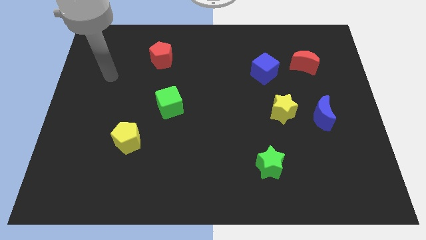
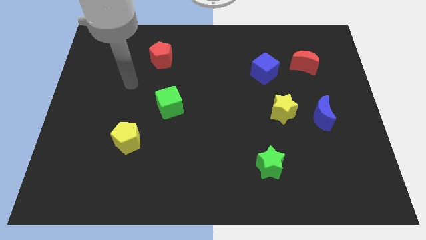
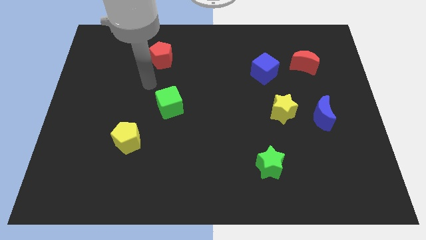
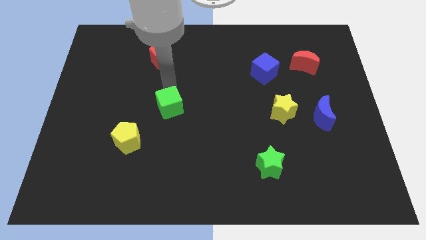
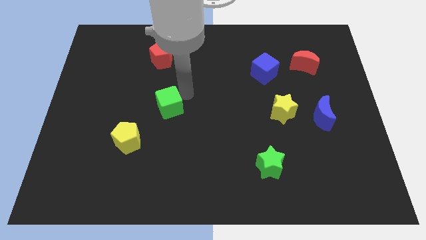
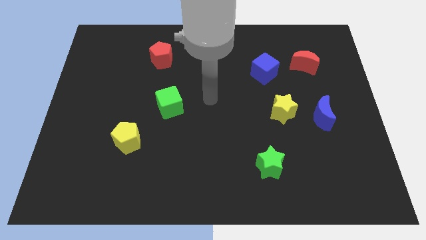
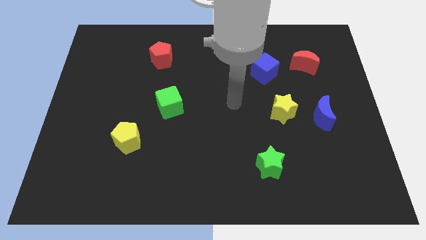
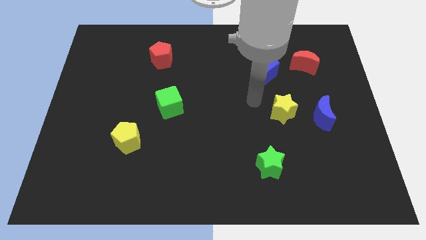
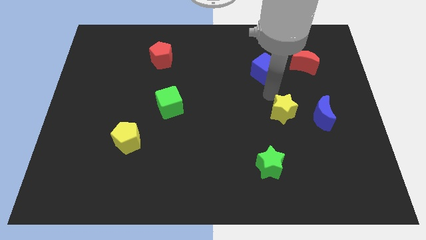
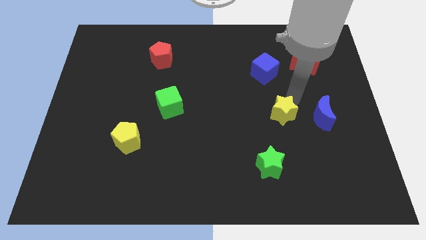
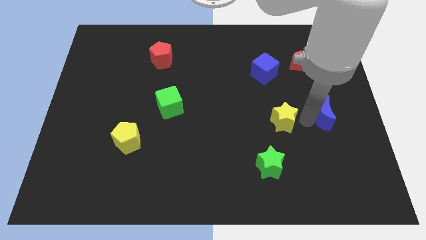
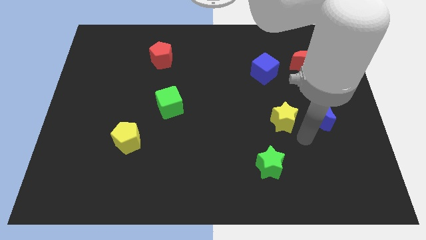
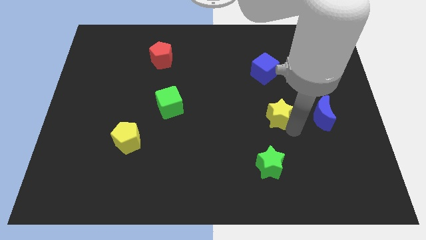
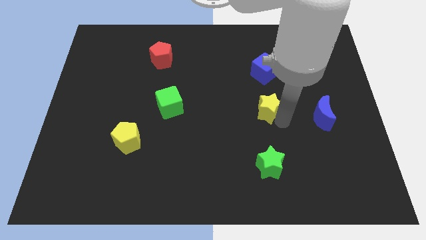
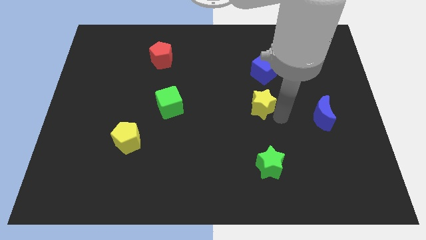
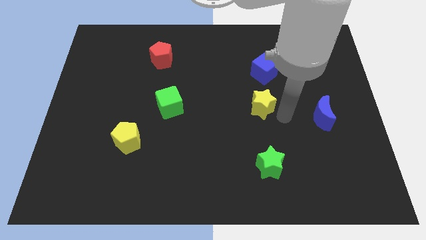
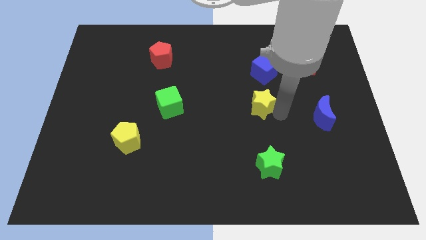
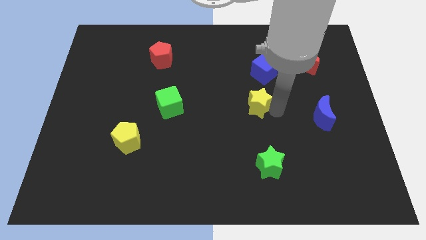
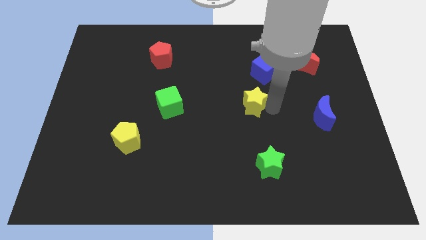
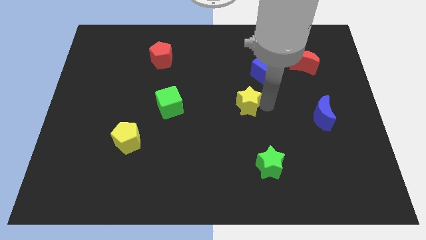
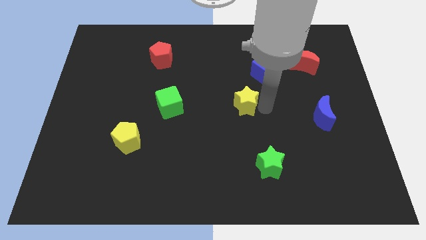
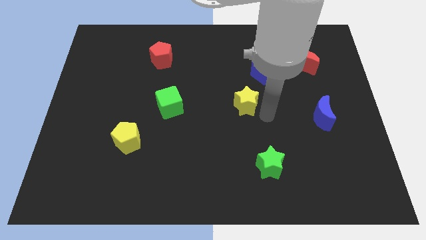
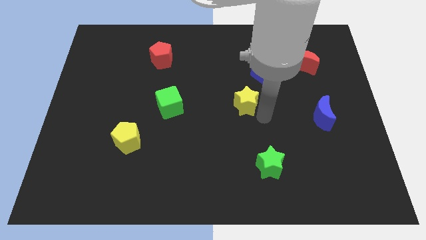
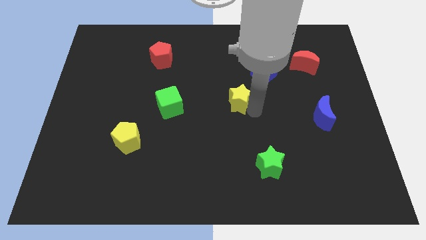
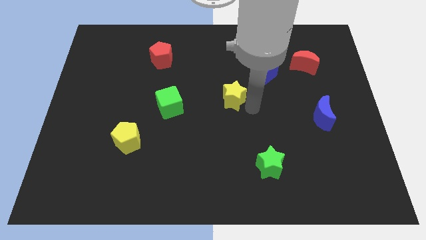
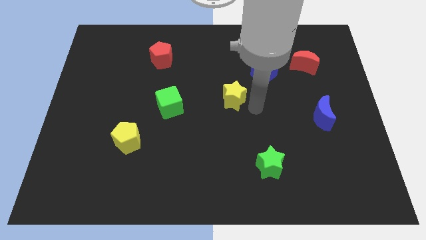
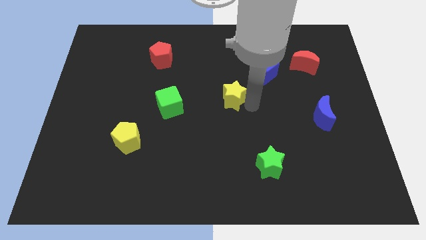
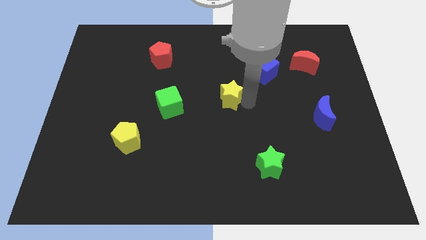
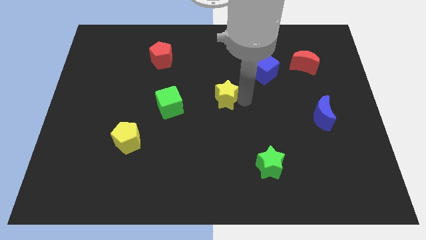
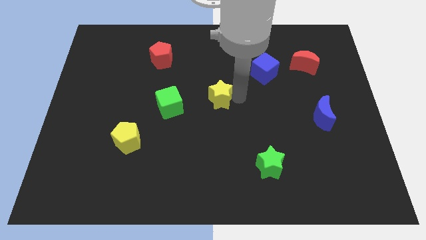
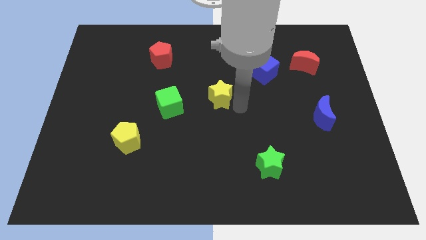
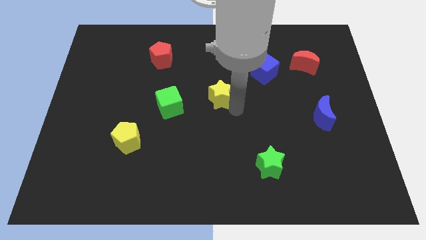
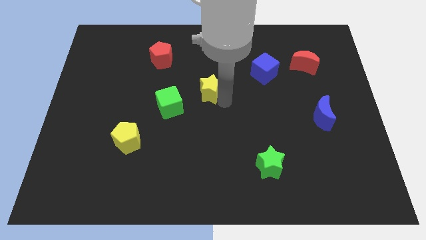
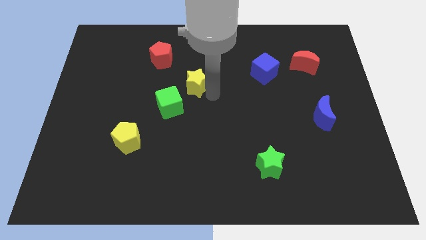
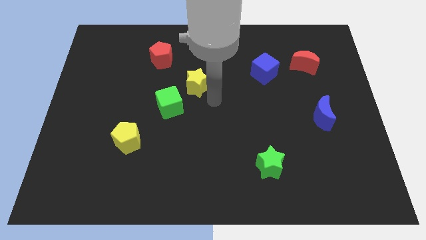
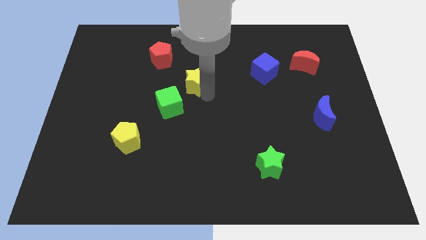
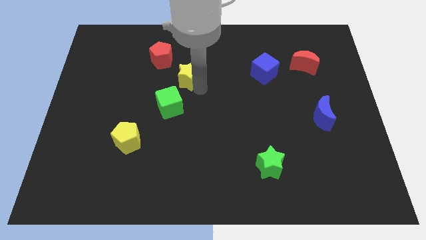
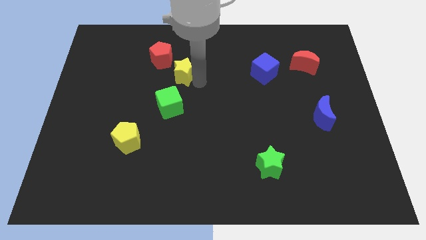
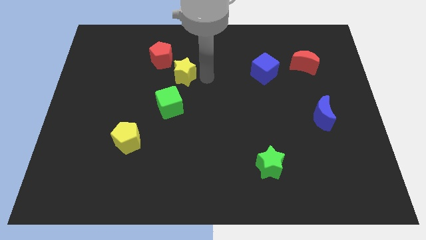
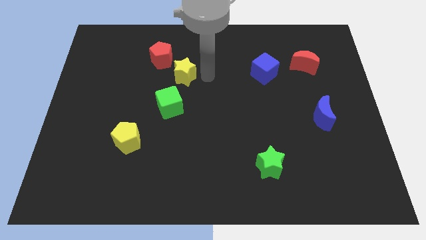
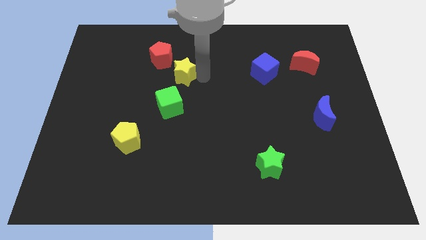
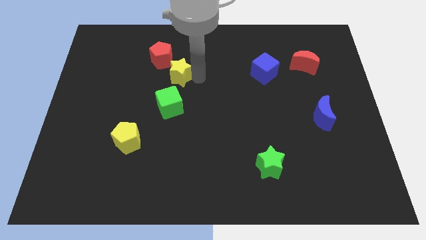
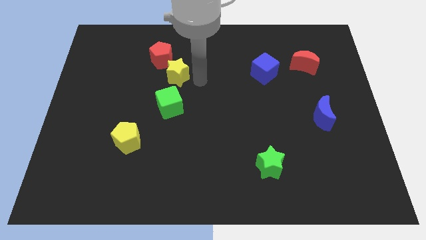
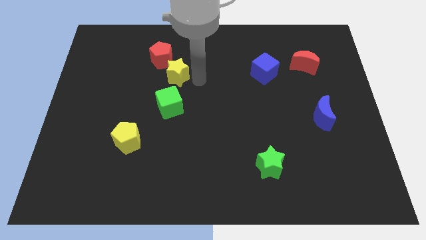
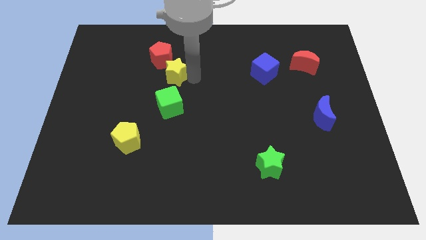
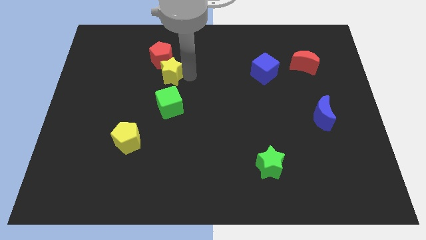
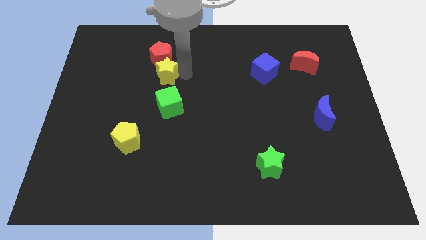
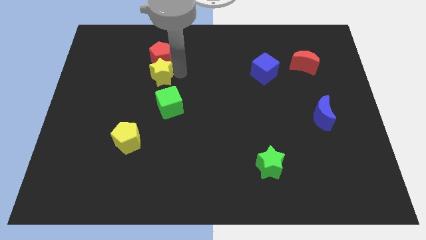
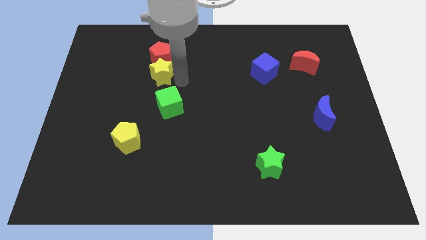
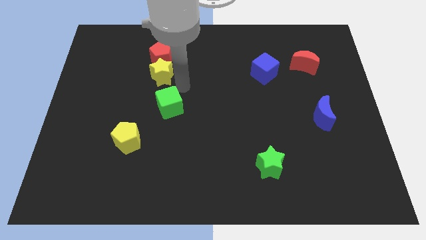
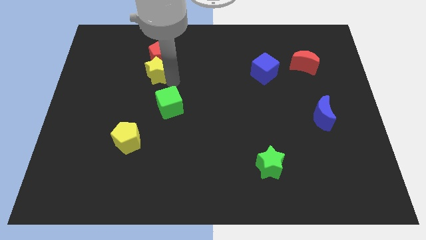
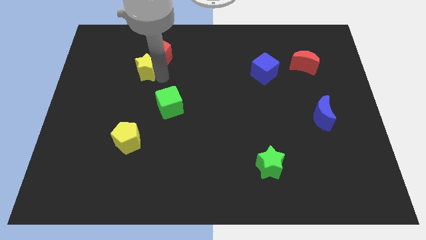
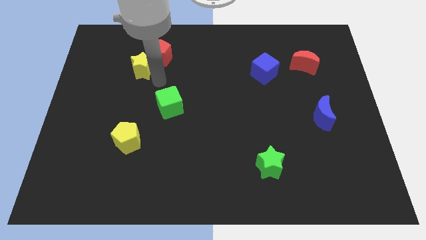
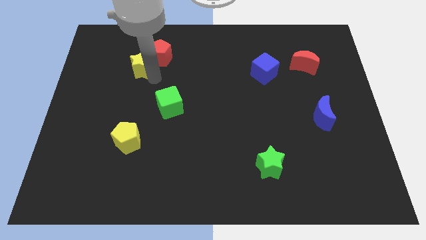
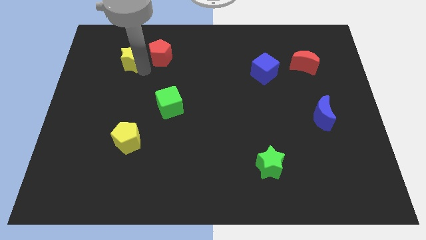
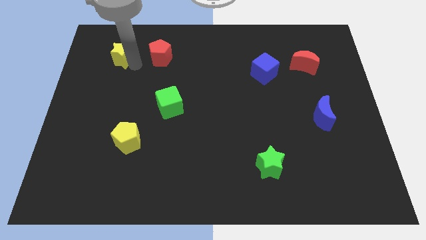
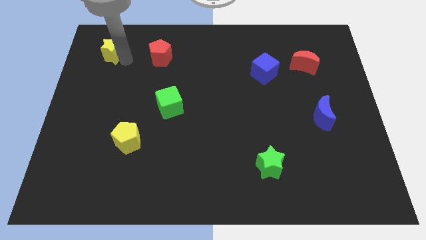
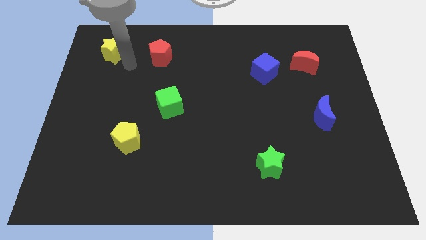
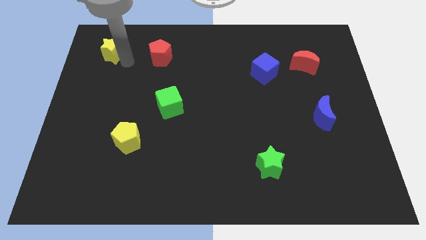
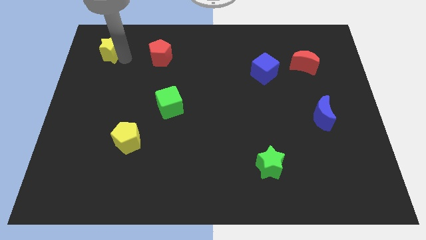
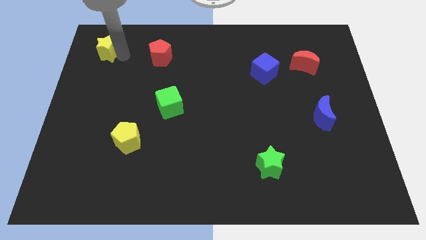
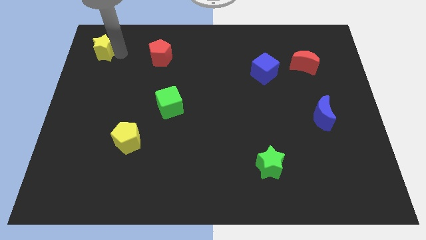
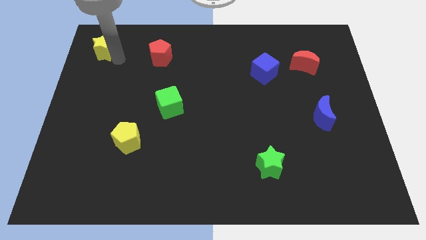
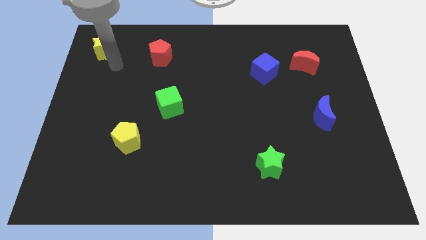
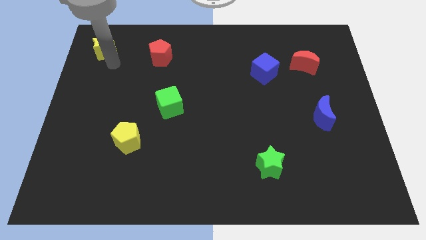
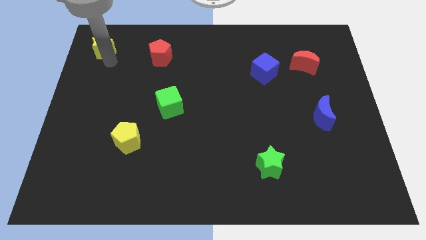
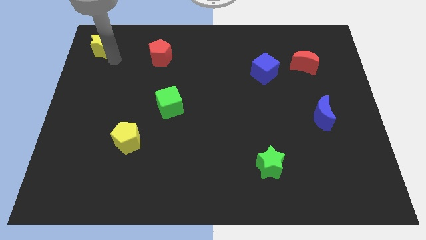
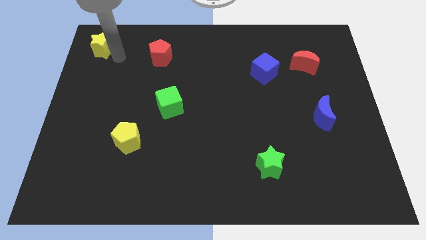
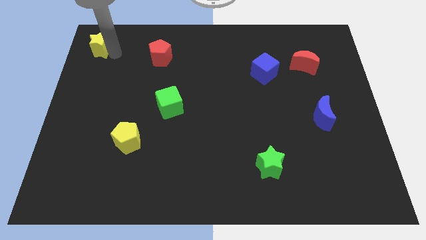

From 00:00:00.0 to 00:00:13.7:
slide the yellow star to the upper left corner
